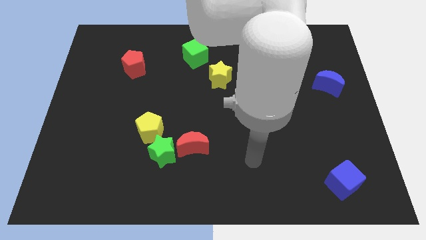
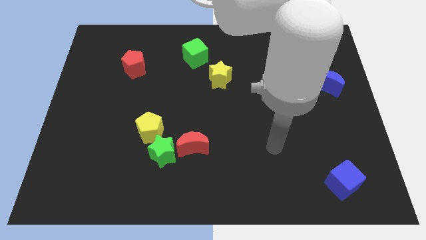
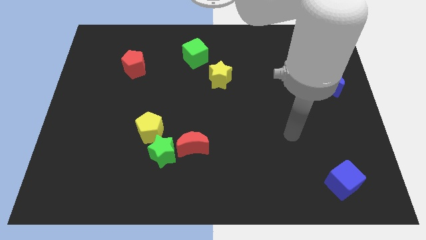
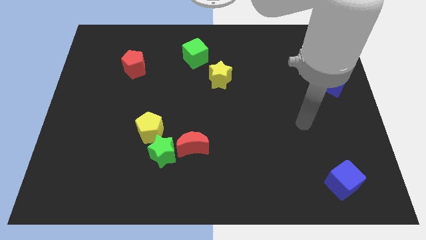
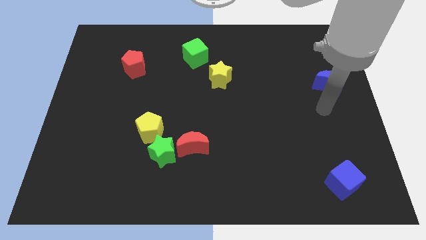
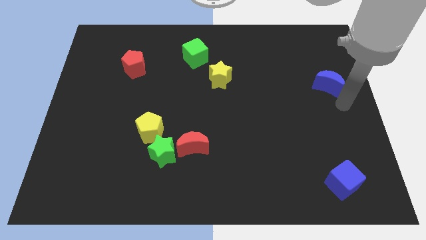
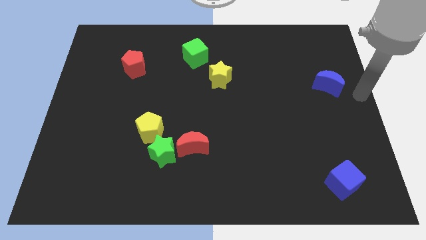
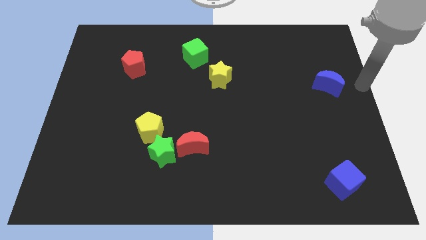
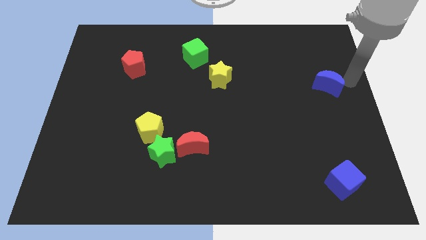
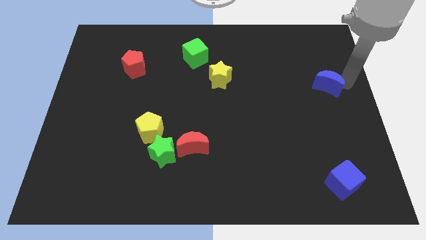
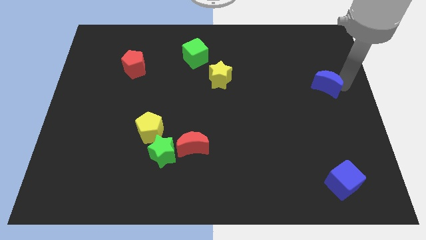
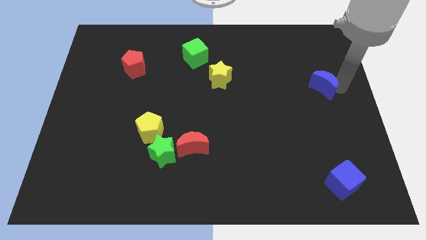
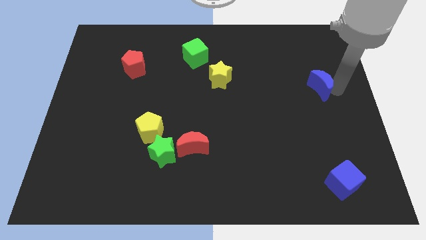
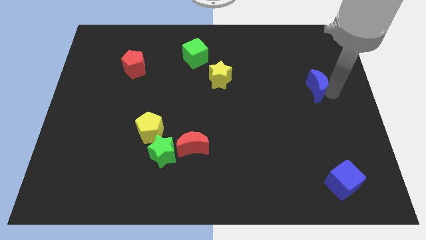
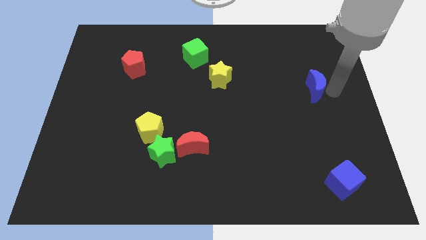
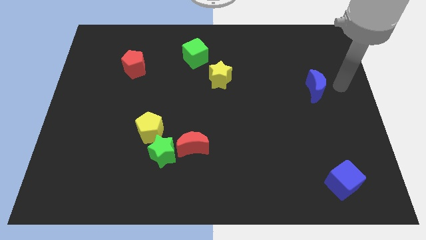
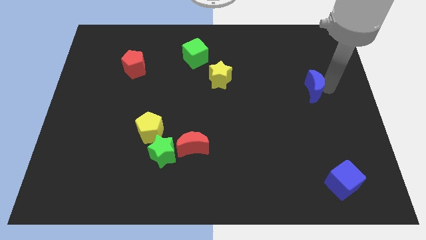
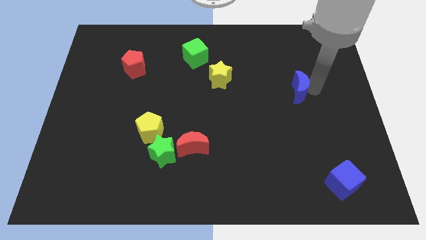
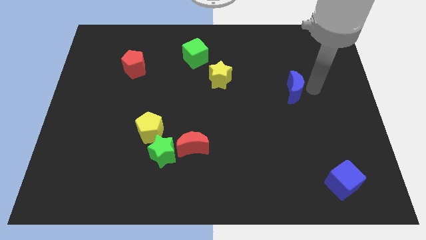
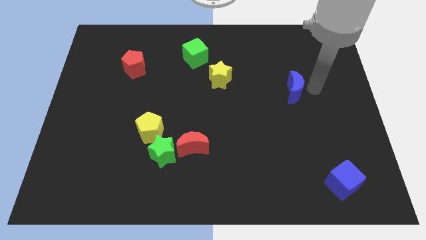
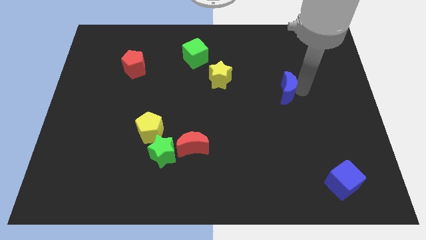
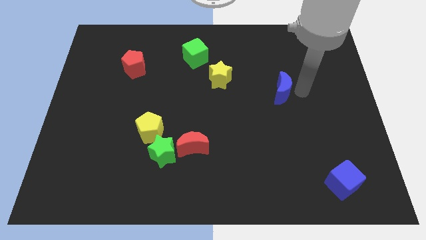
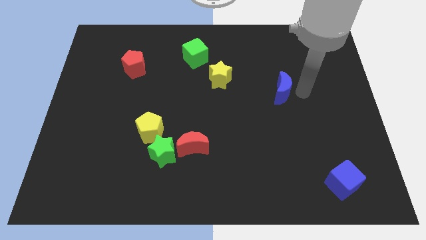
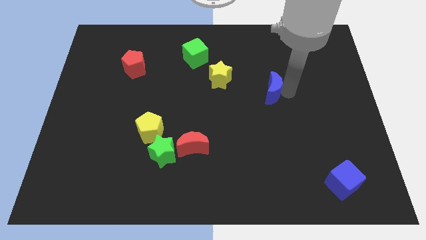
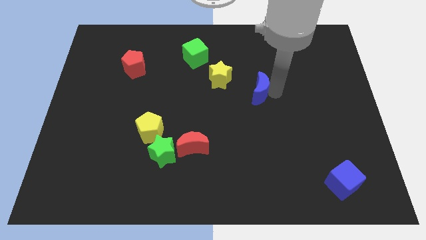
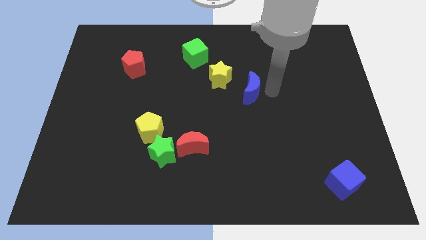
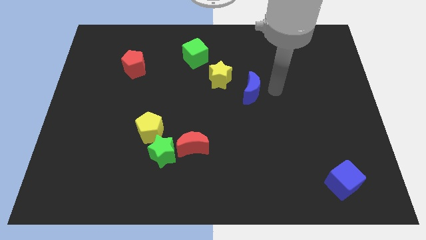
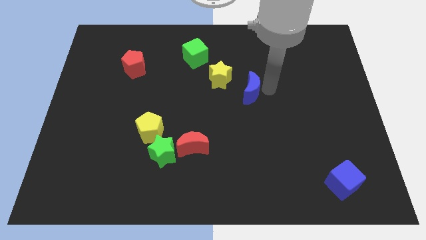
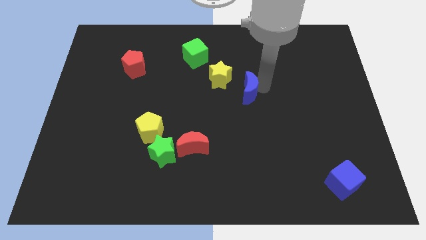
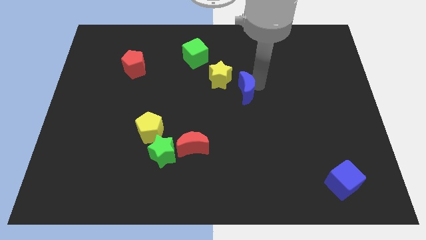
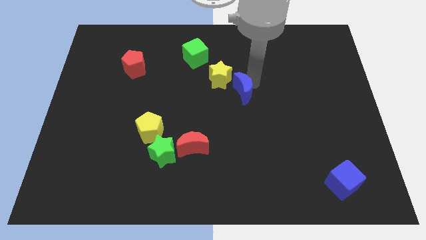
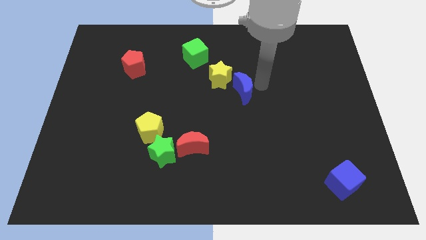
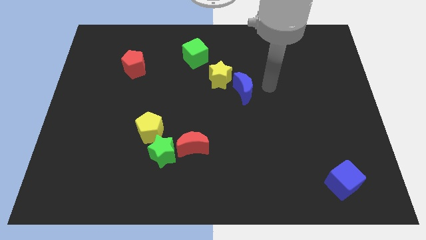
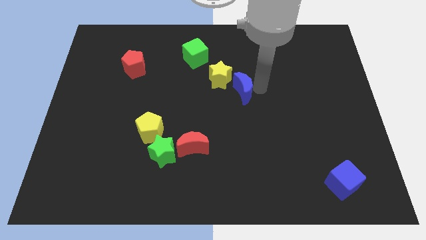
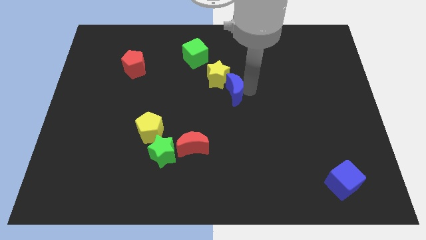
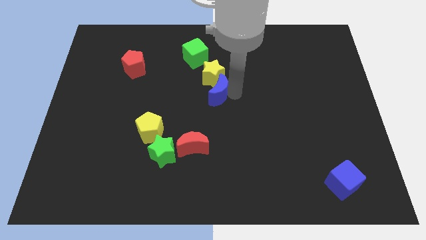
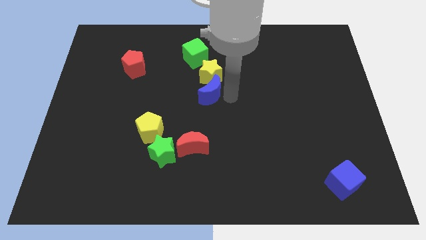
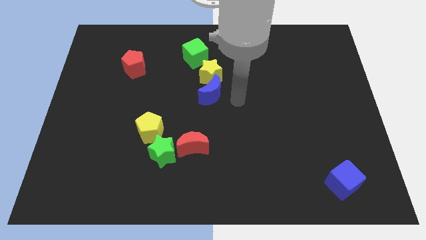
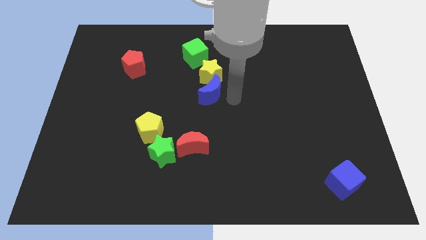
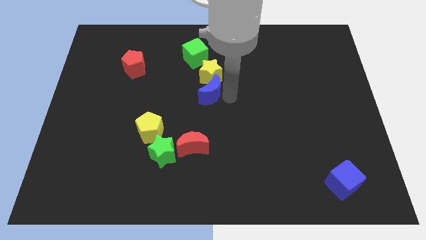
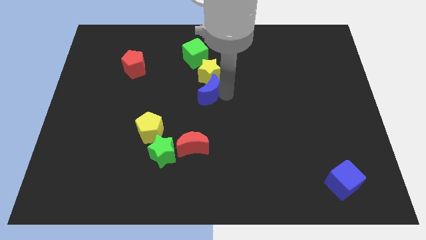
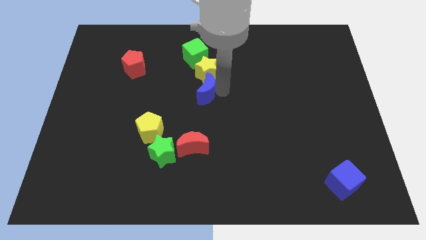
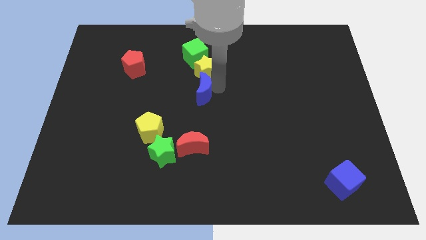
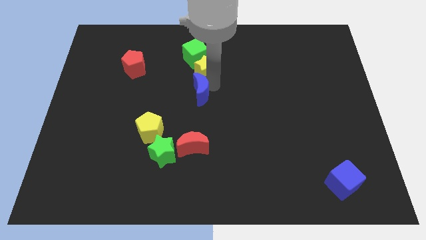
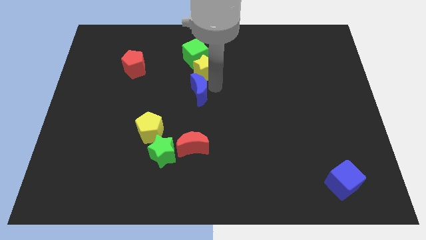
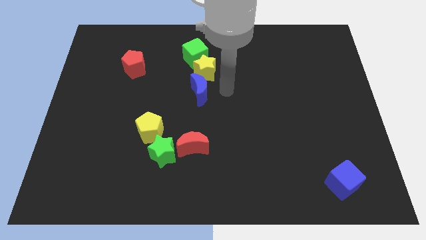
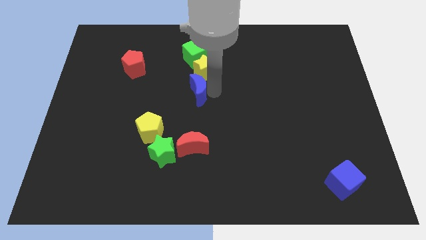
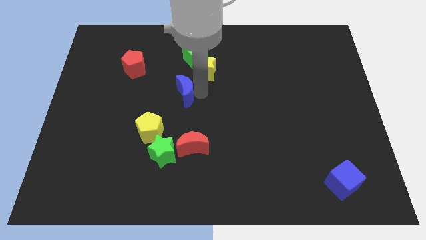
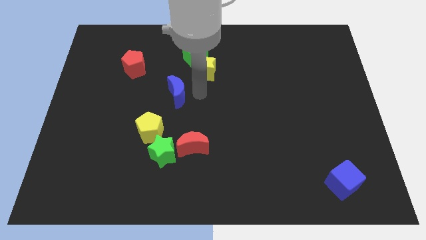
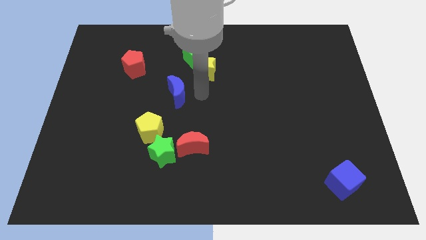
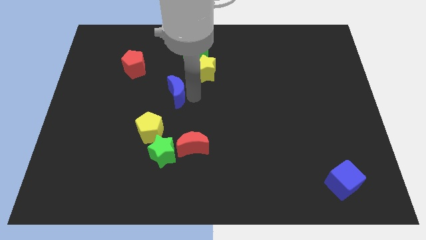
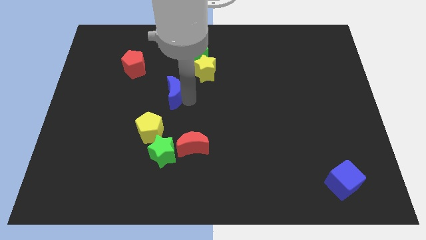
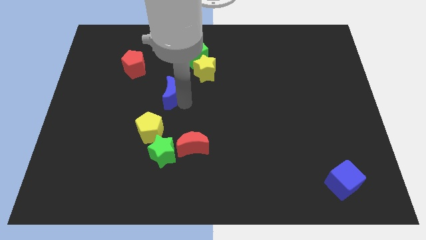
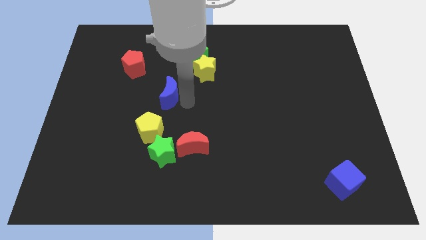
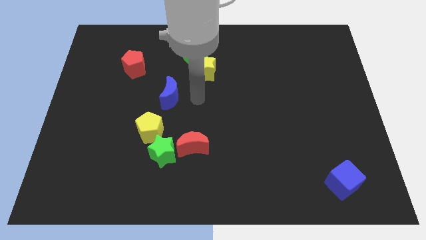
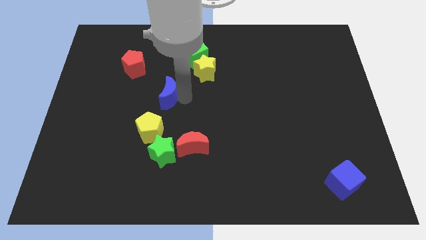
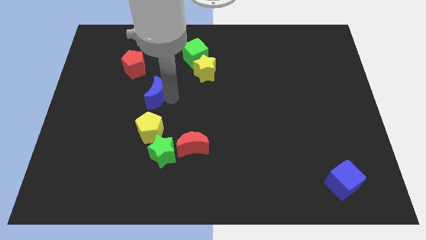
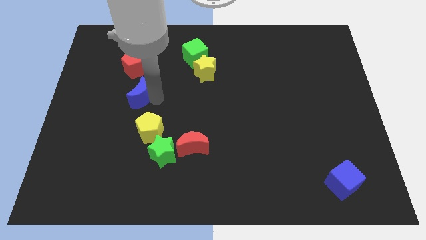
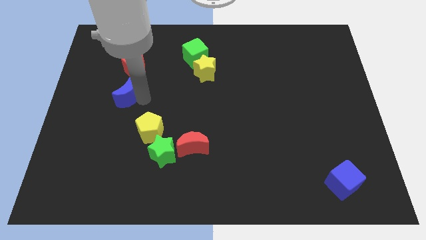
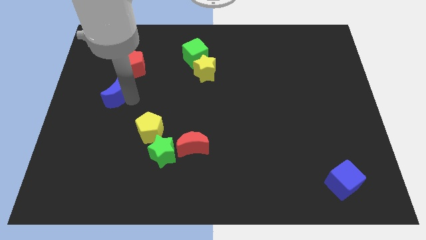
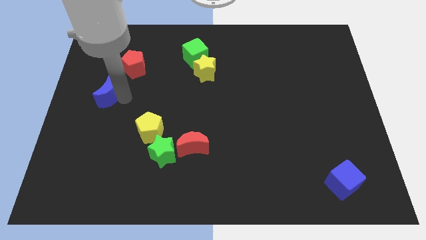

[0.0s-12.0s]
slide the blue moon to the left side of the board

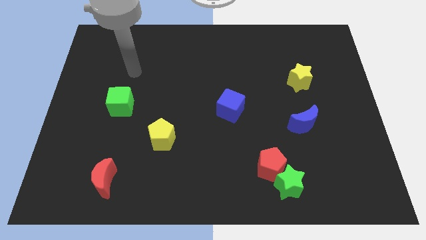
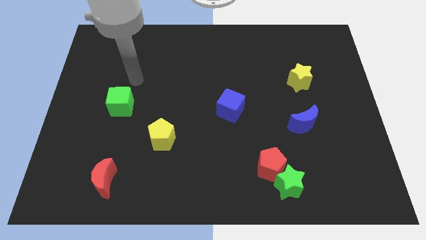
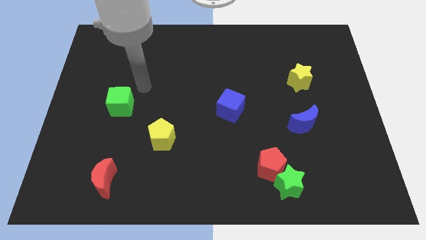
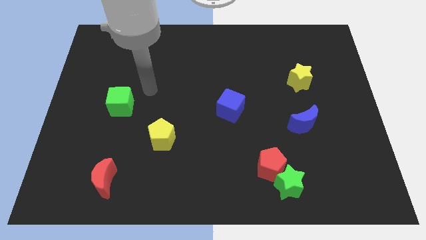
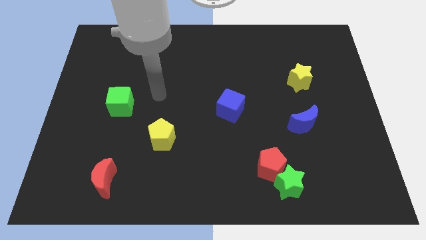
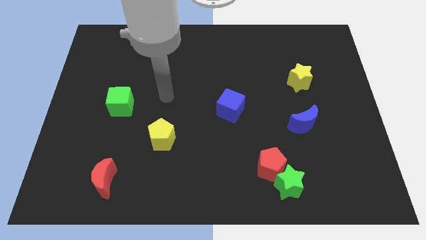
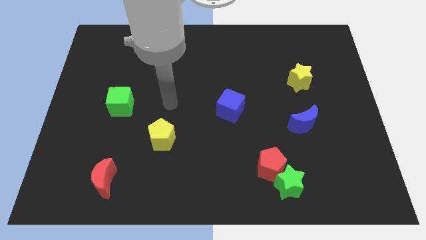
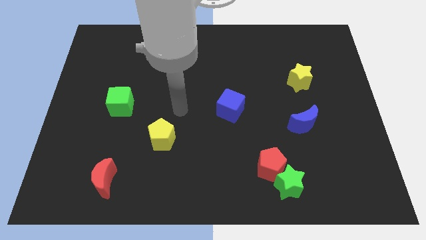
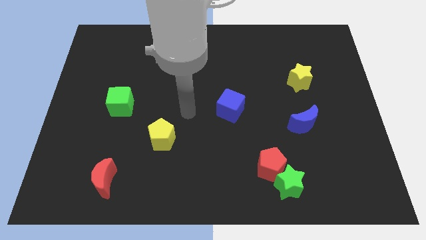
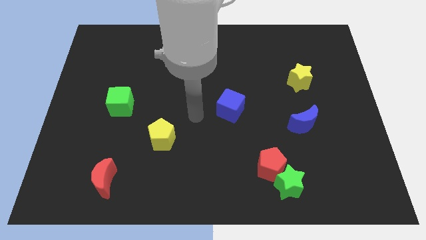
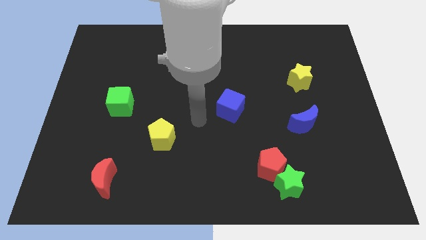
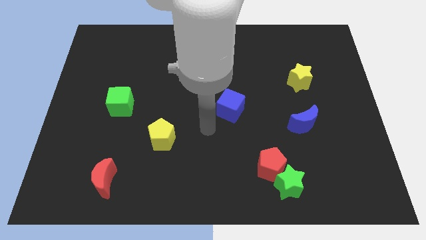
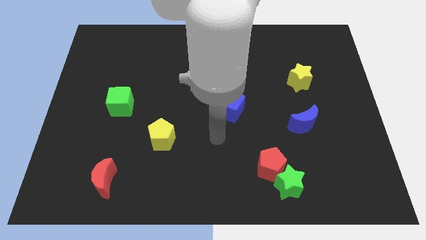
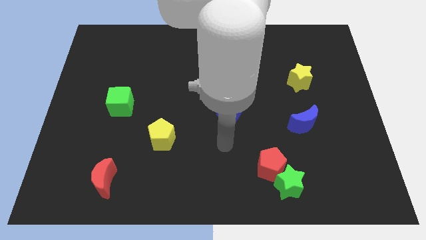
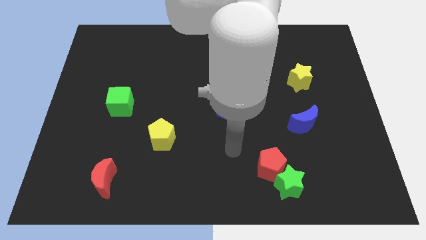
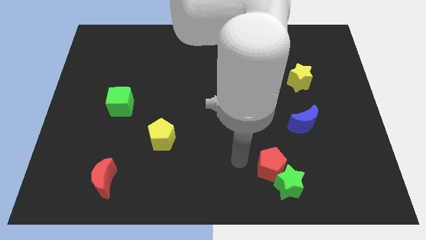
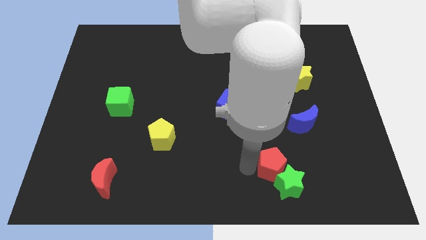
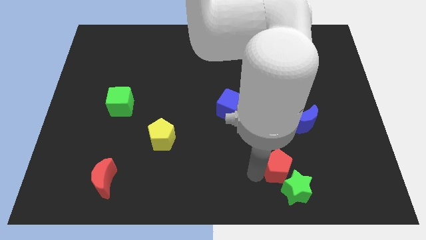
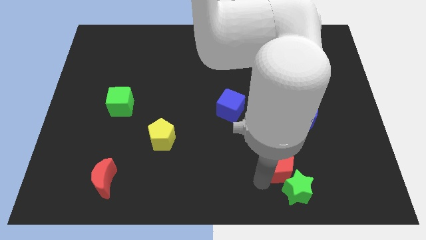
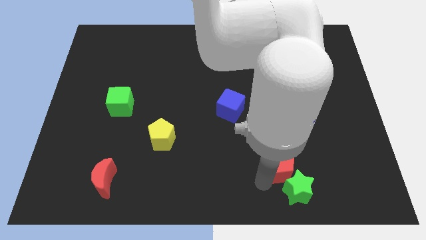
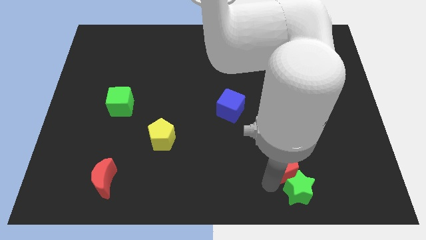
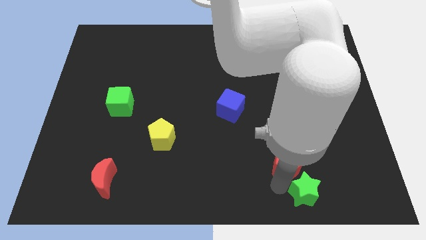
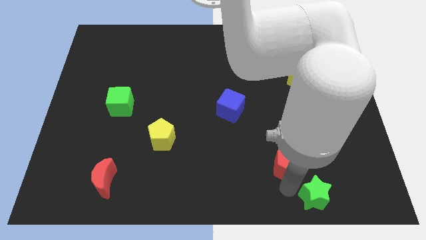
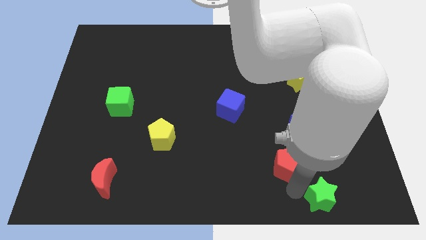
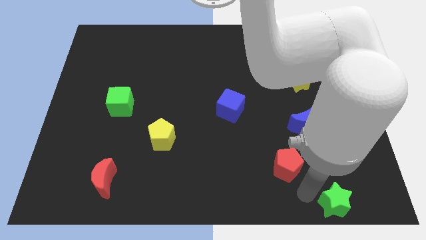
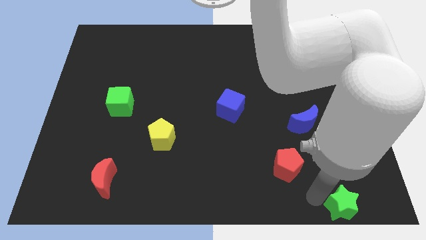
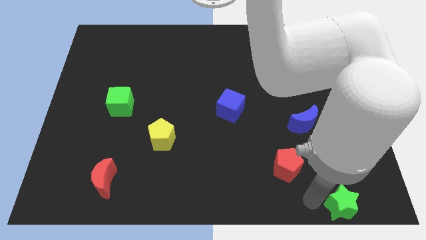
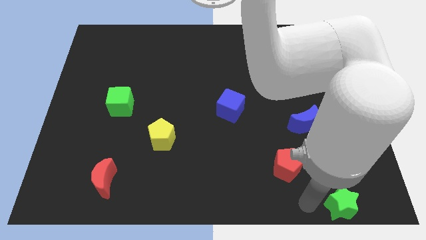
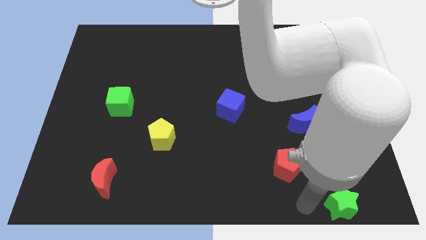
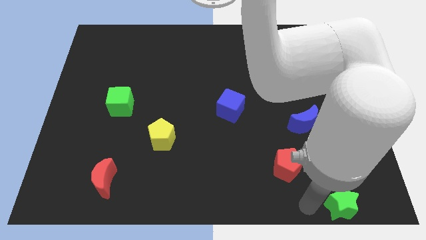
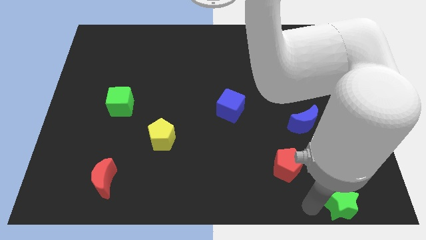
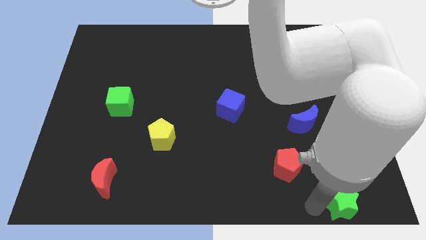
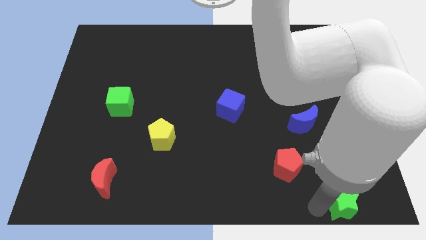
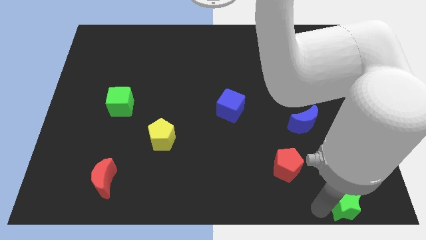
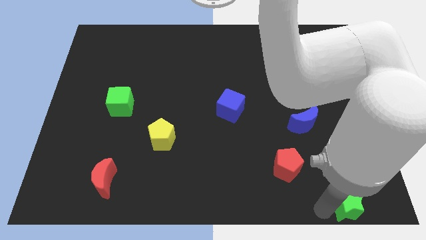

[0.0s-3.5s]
slide the green star to the lower right corner
